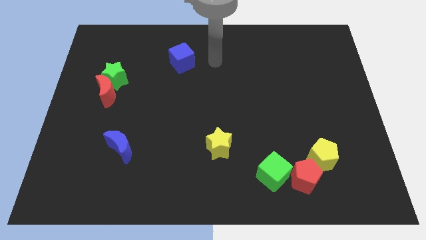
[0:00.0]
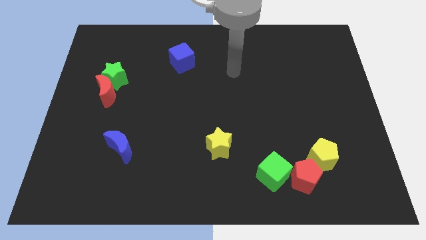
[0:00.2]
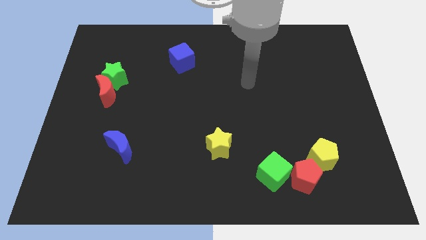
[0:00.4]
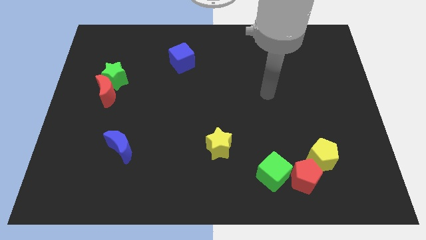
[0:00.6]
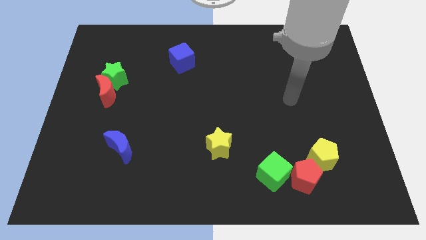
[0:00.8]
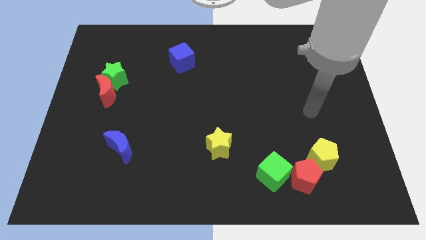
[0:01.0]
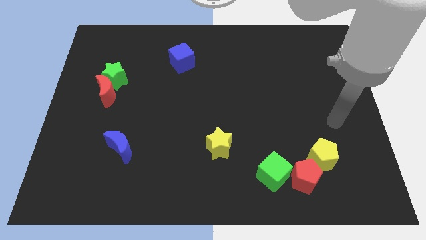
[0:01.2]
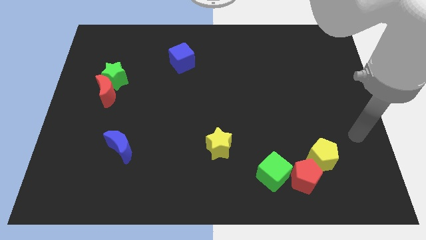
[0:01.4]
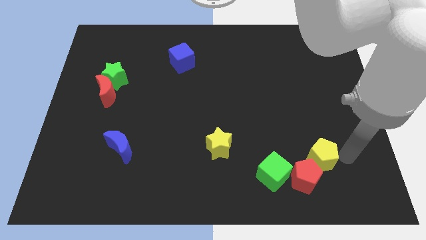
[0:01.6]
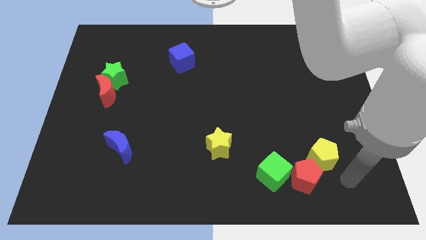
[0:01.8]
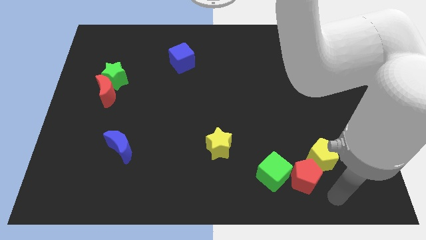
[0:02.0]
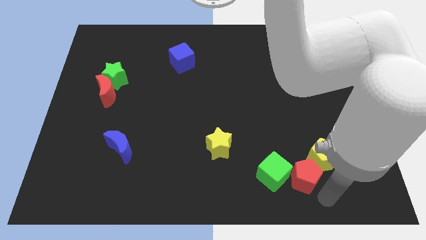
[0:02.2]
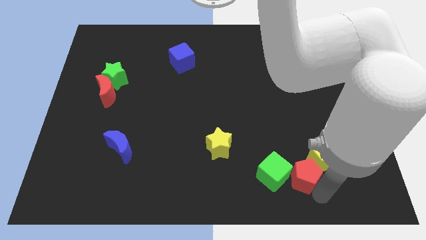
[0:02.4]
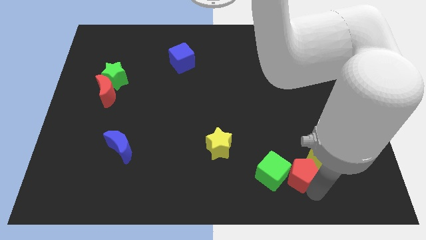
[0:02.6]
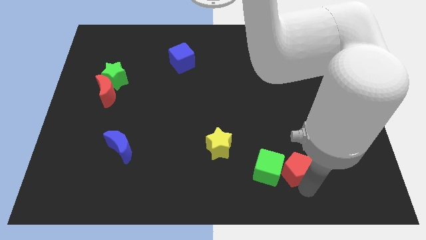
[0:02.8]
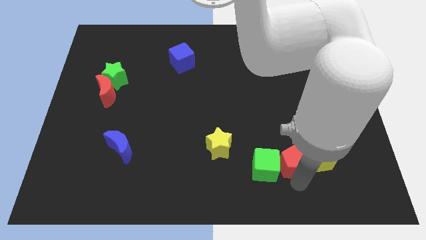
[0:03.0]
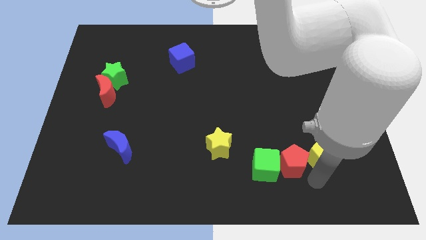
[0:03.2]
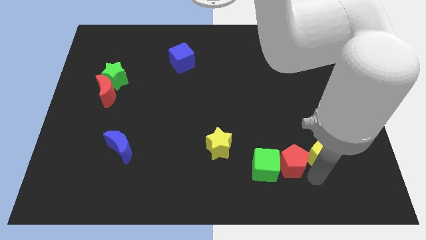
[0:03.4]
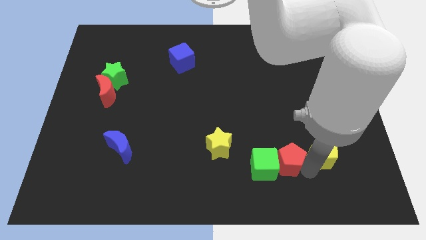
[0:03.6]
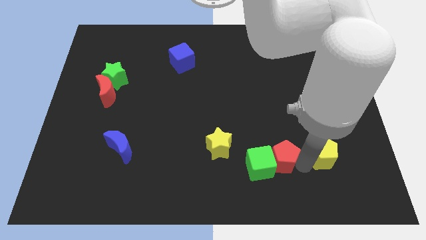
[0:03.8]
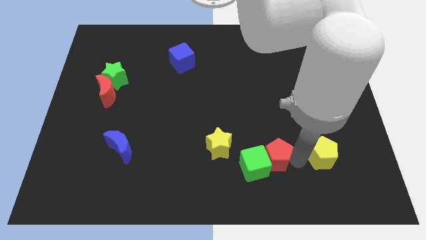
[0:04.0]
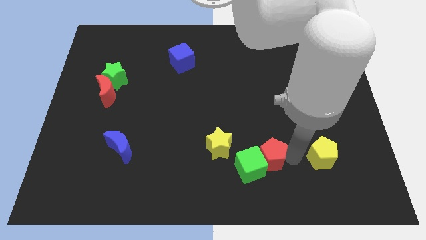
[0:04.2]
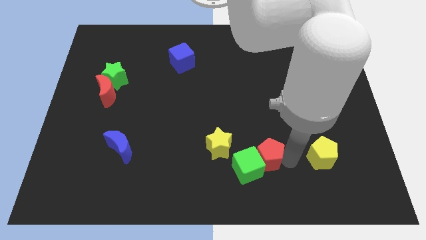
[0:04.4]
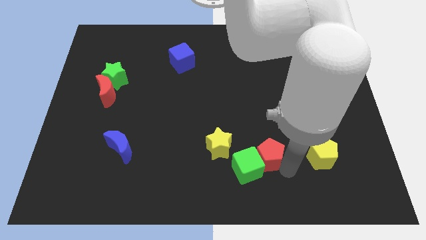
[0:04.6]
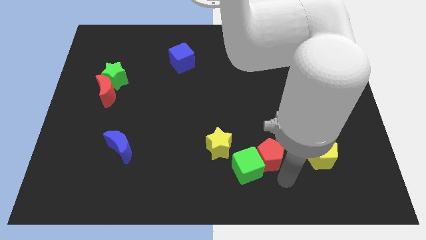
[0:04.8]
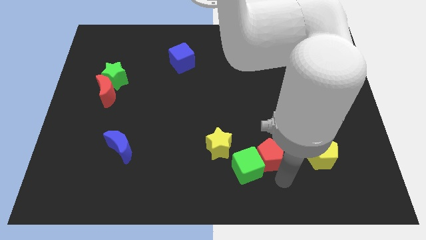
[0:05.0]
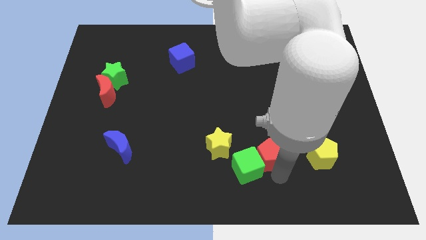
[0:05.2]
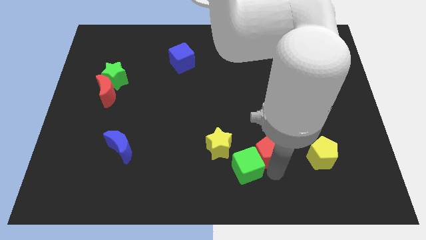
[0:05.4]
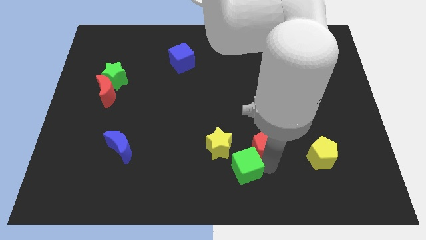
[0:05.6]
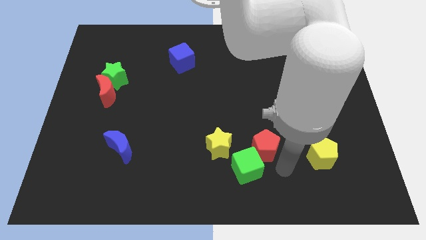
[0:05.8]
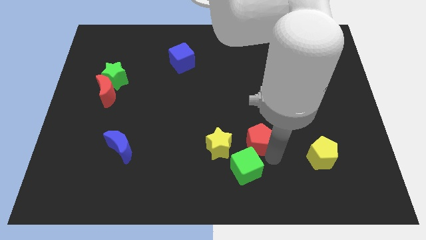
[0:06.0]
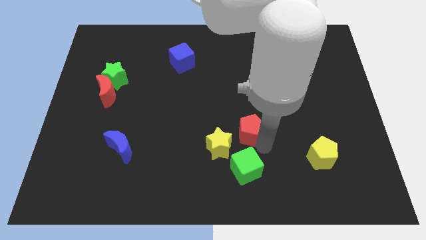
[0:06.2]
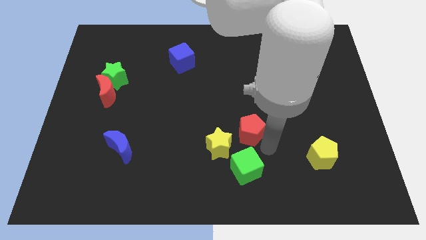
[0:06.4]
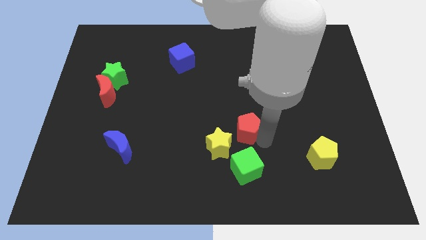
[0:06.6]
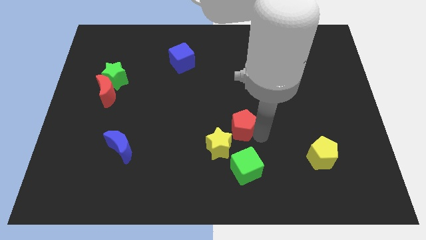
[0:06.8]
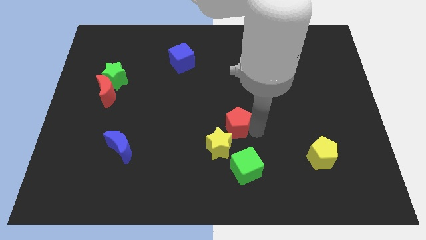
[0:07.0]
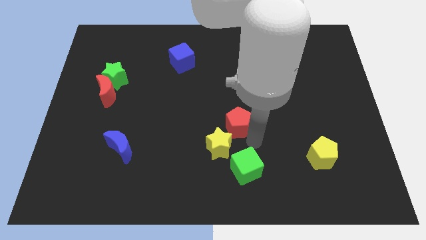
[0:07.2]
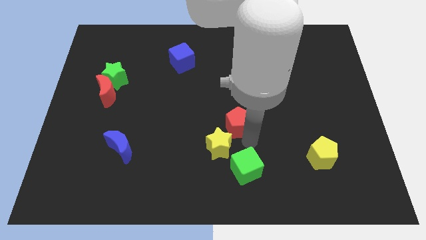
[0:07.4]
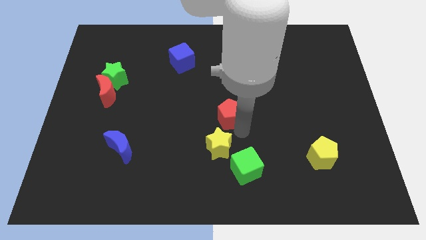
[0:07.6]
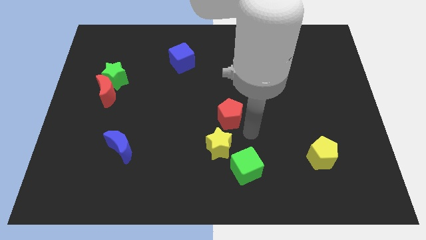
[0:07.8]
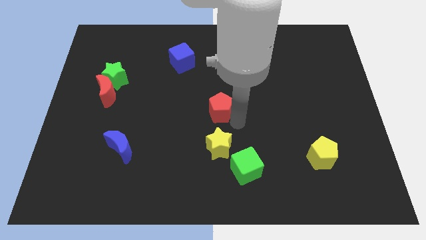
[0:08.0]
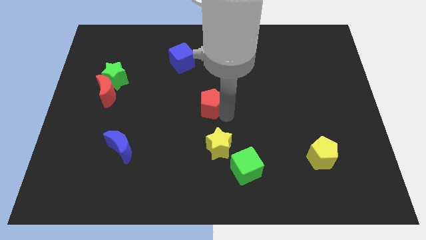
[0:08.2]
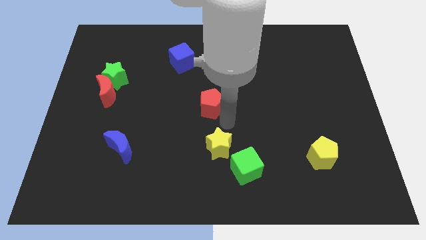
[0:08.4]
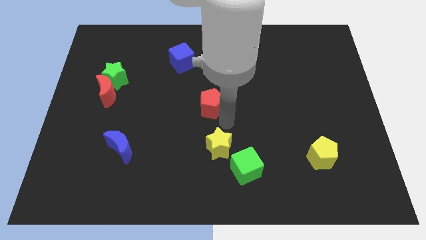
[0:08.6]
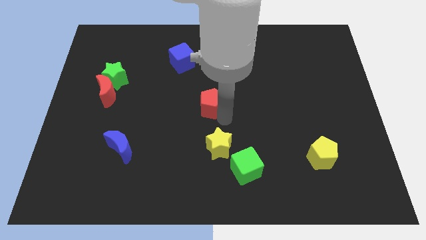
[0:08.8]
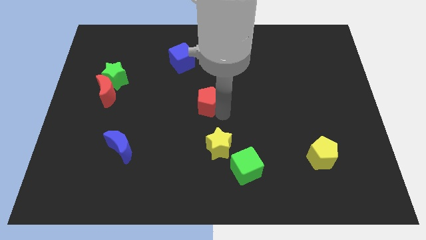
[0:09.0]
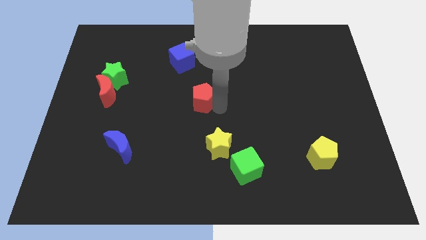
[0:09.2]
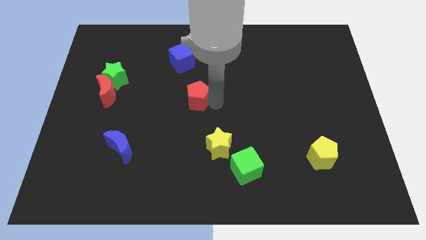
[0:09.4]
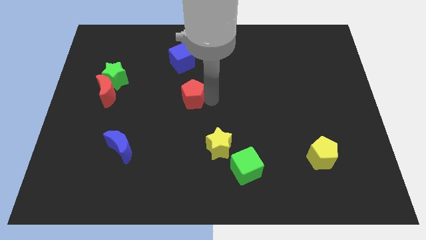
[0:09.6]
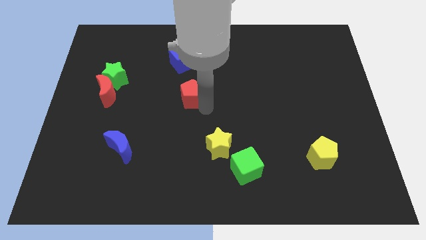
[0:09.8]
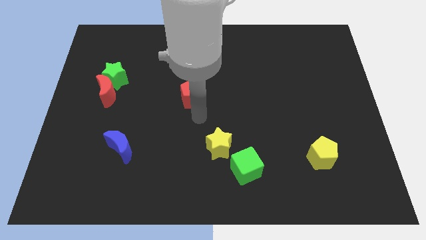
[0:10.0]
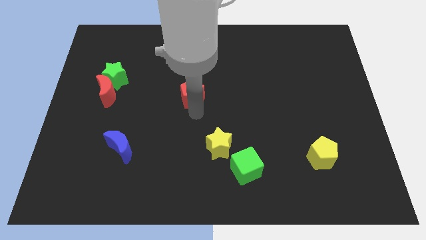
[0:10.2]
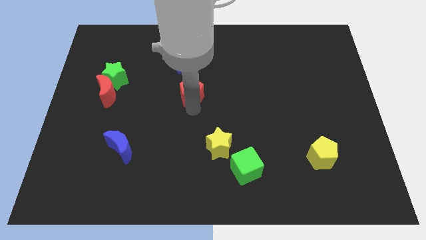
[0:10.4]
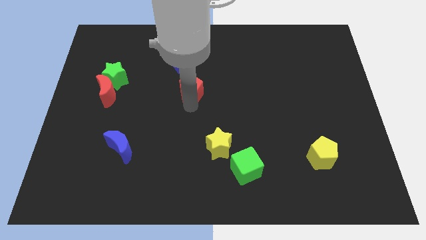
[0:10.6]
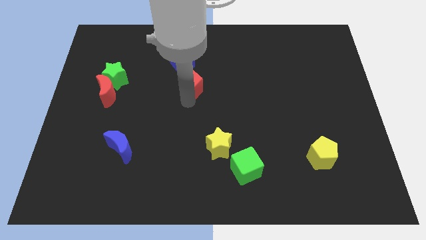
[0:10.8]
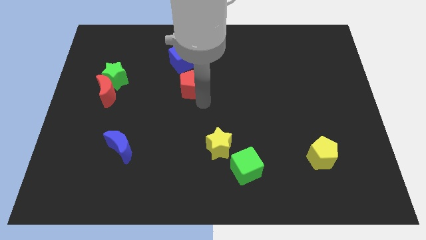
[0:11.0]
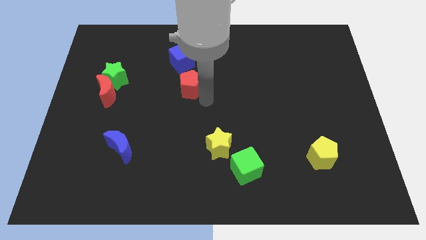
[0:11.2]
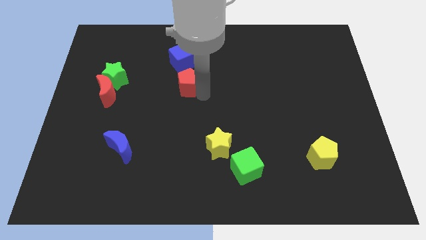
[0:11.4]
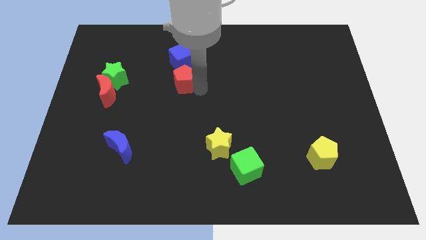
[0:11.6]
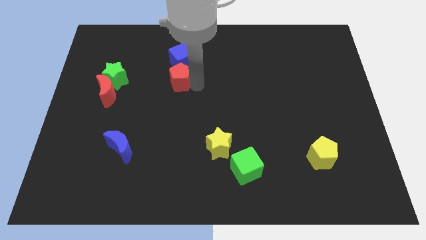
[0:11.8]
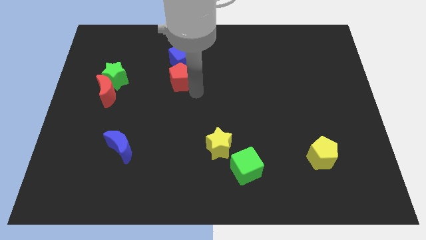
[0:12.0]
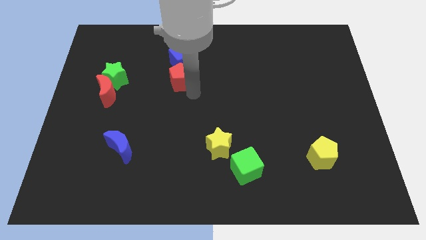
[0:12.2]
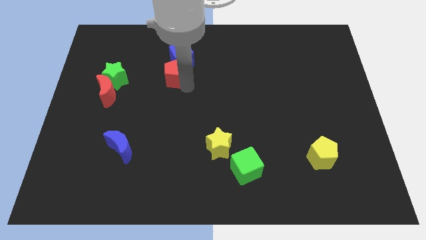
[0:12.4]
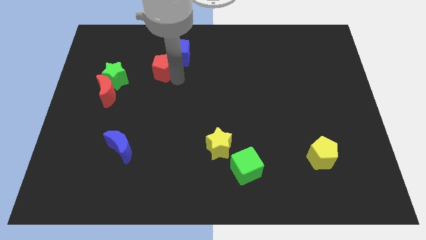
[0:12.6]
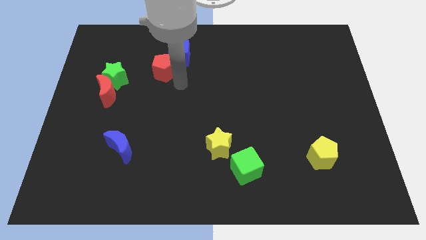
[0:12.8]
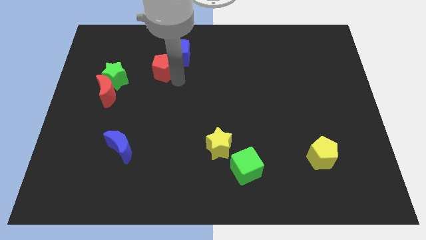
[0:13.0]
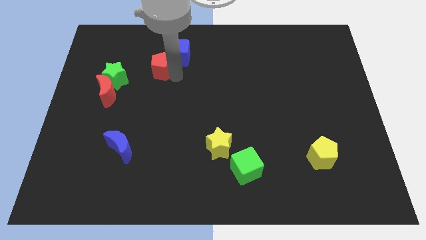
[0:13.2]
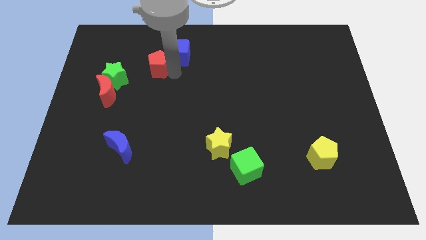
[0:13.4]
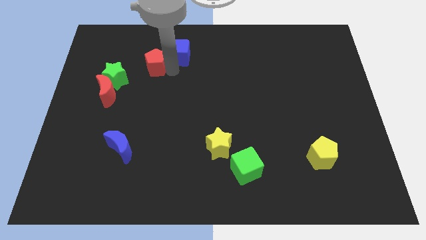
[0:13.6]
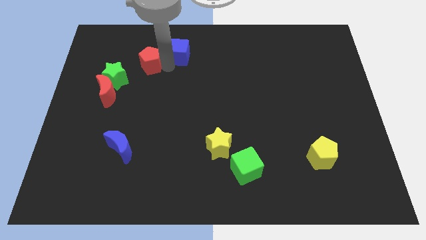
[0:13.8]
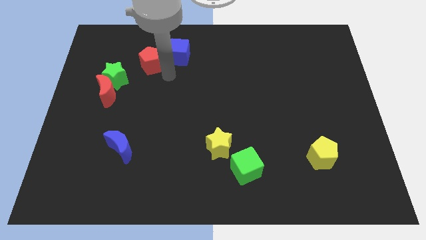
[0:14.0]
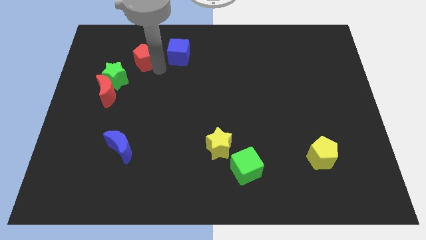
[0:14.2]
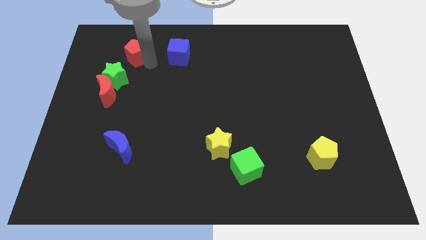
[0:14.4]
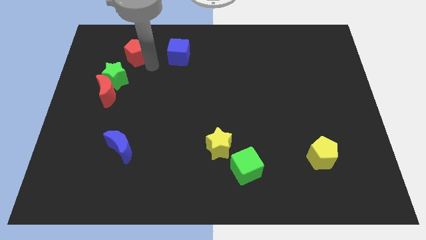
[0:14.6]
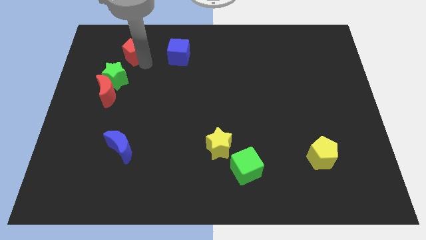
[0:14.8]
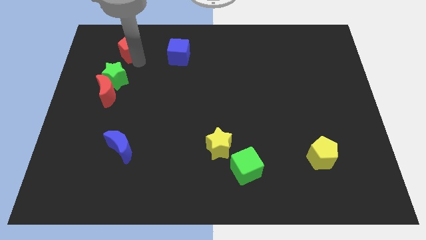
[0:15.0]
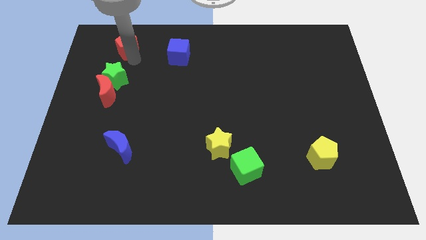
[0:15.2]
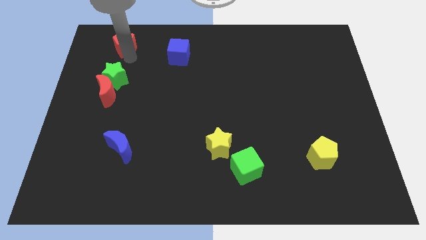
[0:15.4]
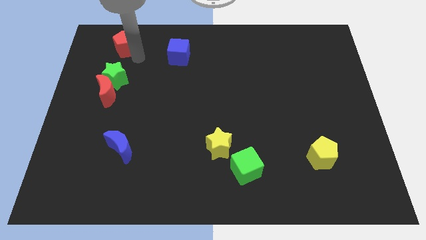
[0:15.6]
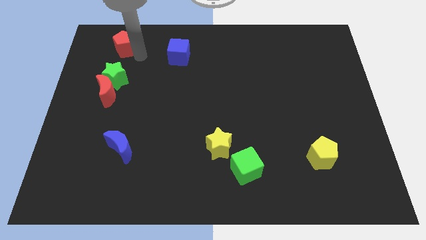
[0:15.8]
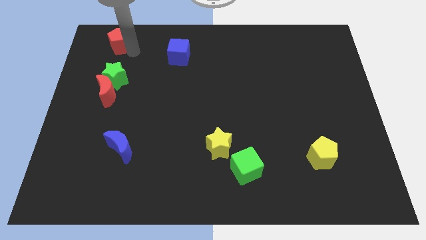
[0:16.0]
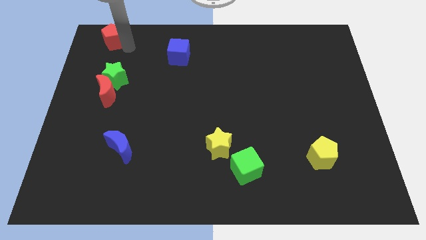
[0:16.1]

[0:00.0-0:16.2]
push the red pentagon to the top left of the board
